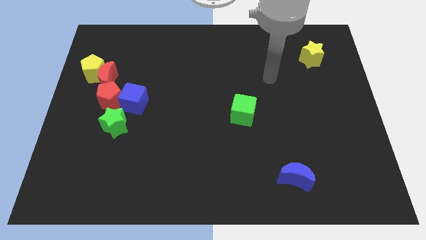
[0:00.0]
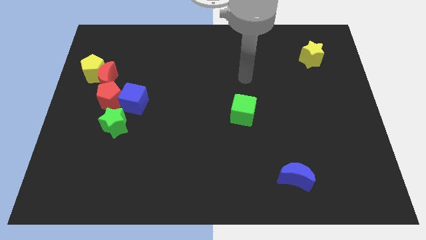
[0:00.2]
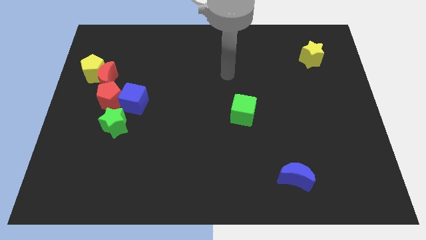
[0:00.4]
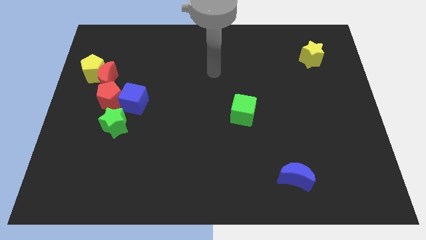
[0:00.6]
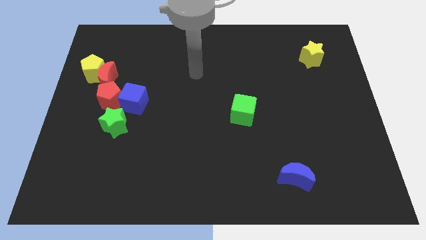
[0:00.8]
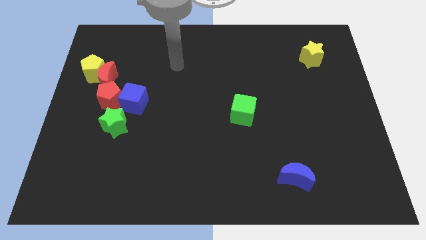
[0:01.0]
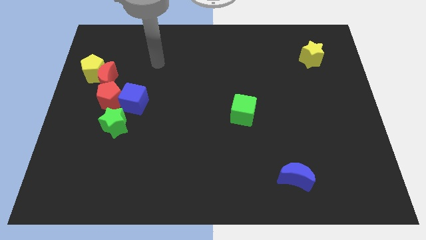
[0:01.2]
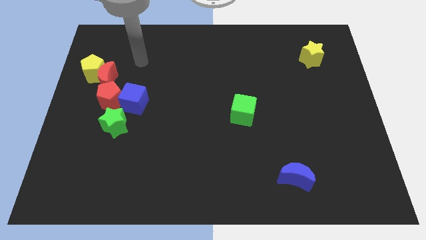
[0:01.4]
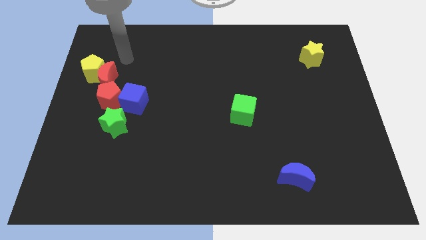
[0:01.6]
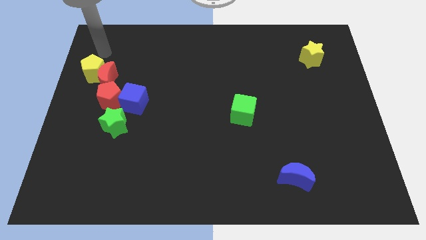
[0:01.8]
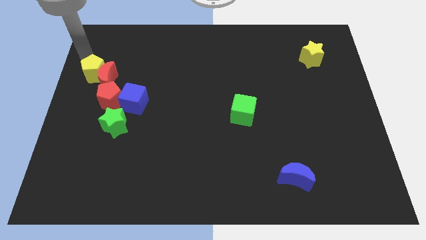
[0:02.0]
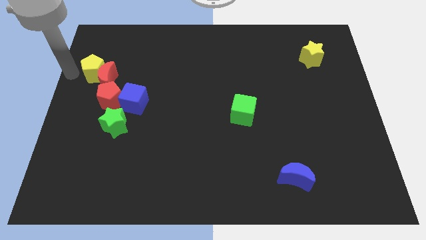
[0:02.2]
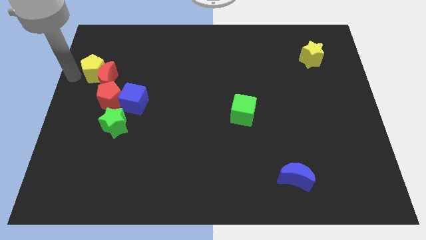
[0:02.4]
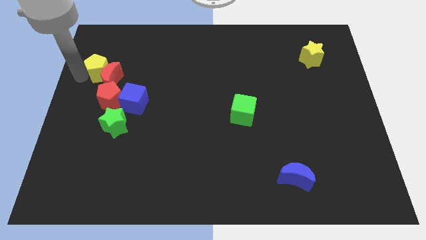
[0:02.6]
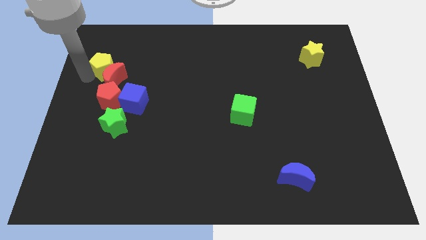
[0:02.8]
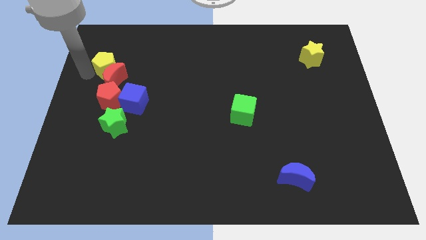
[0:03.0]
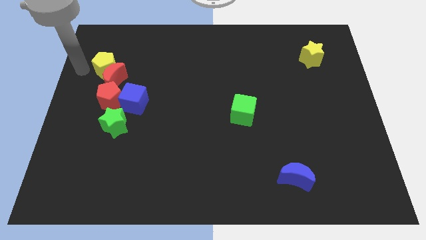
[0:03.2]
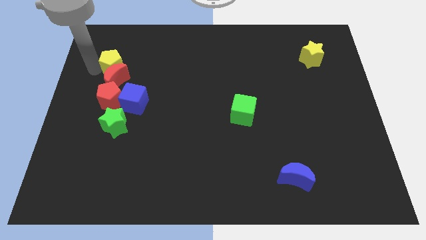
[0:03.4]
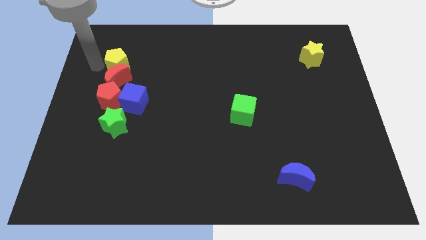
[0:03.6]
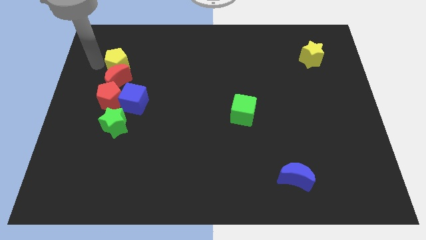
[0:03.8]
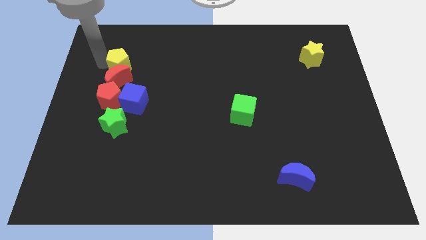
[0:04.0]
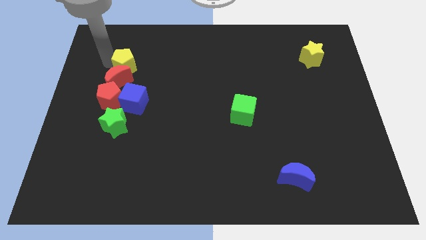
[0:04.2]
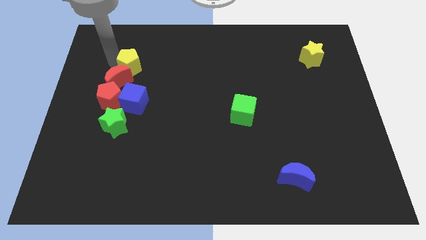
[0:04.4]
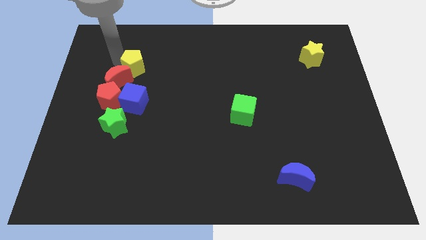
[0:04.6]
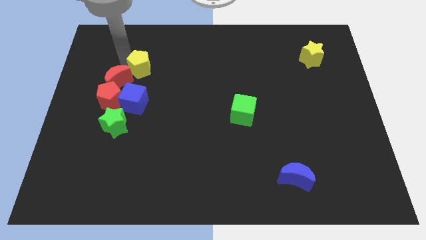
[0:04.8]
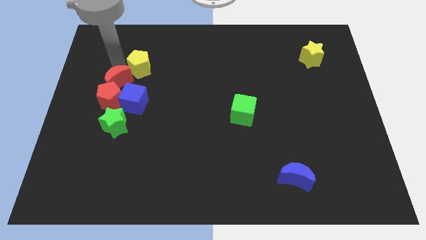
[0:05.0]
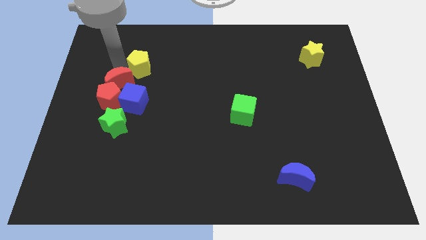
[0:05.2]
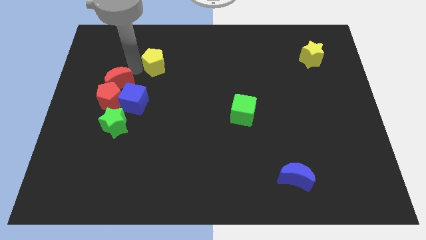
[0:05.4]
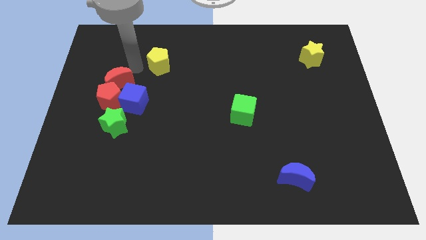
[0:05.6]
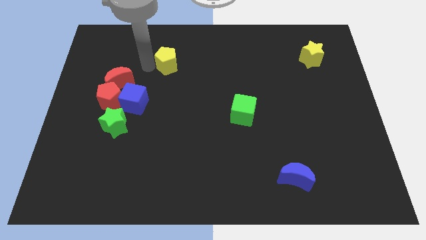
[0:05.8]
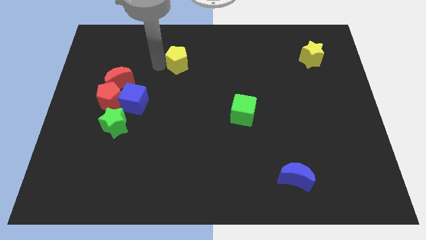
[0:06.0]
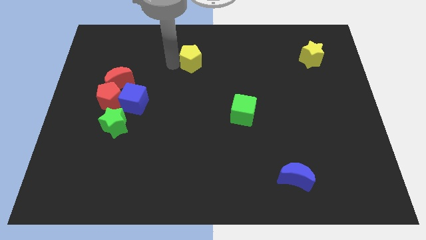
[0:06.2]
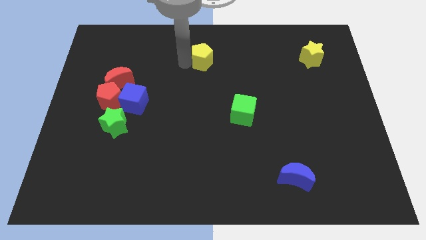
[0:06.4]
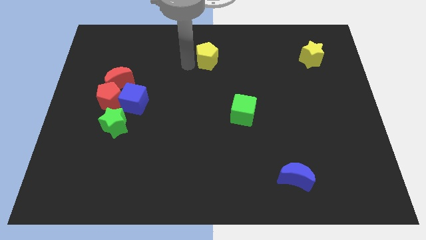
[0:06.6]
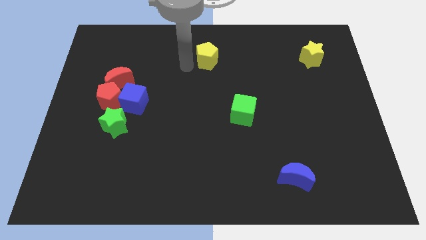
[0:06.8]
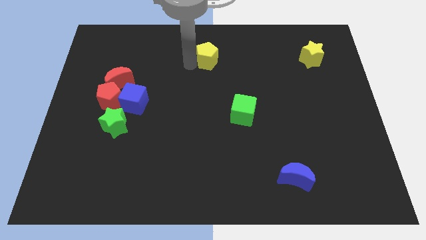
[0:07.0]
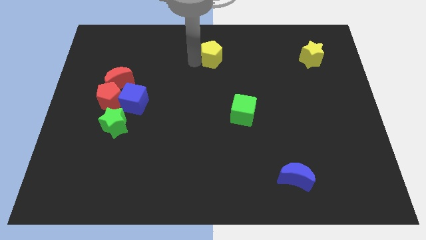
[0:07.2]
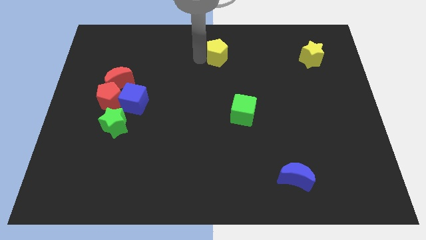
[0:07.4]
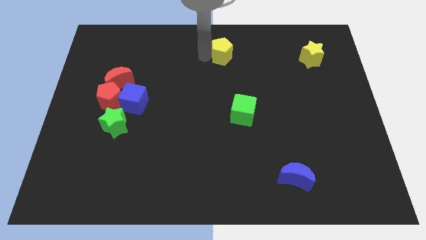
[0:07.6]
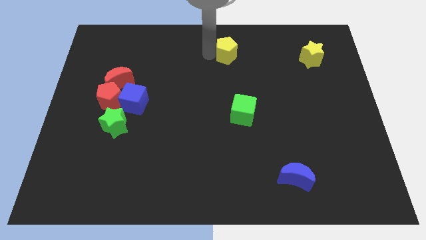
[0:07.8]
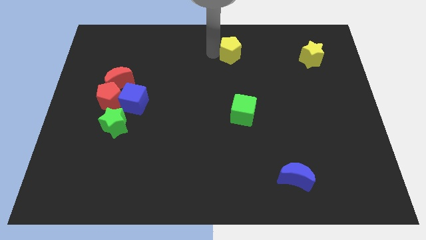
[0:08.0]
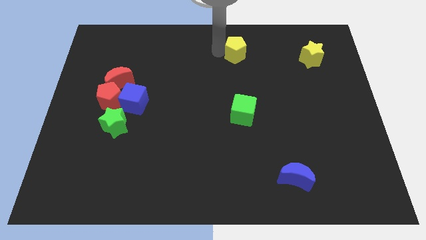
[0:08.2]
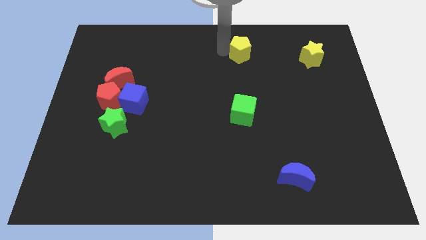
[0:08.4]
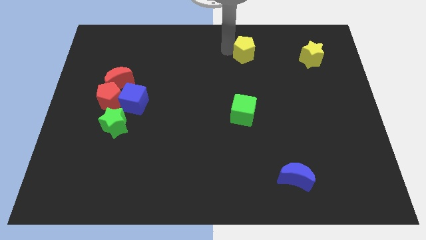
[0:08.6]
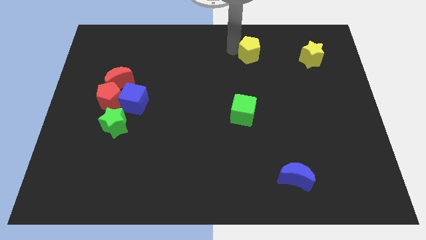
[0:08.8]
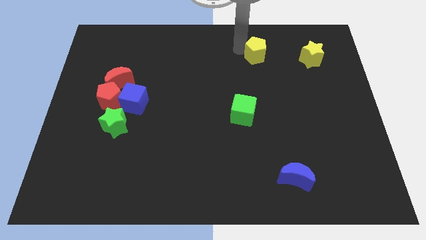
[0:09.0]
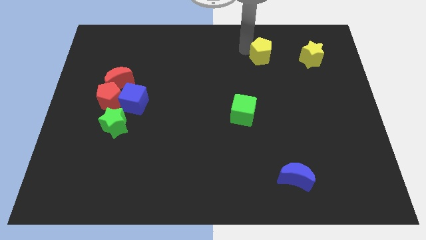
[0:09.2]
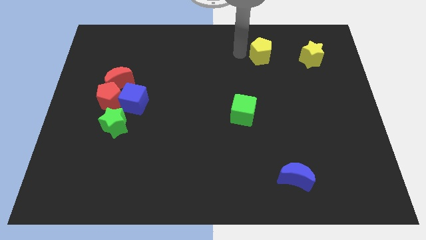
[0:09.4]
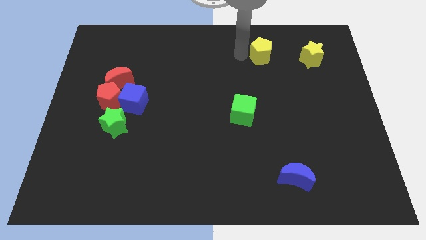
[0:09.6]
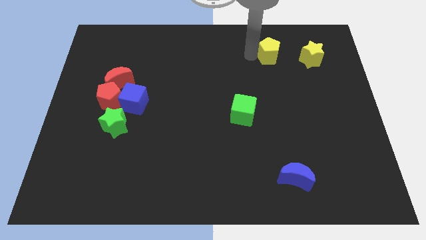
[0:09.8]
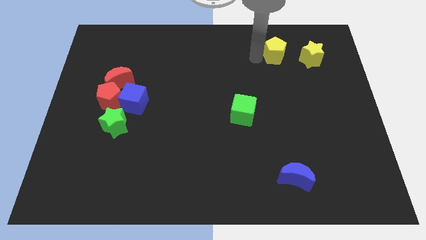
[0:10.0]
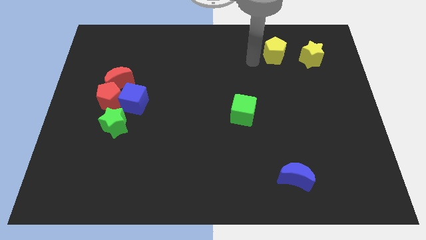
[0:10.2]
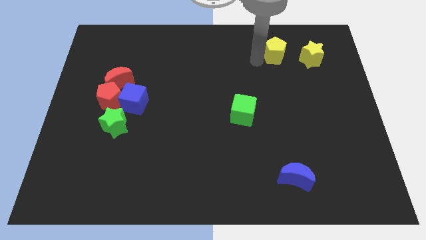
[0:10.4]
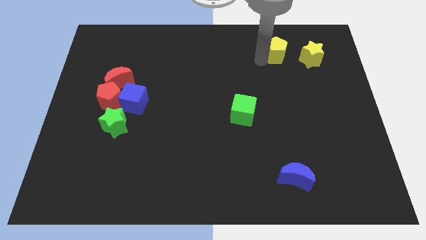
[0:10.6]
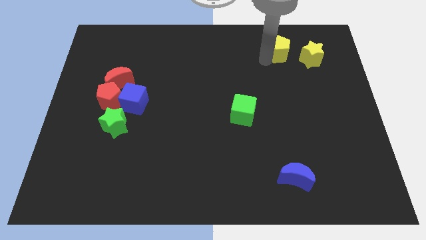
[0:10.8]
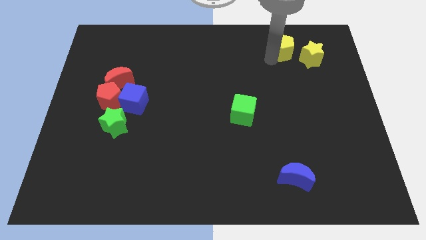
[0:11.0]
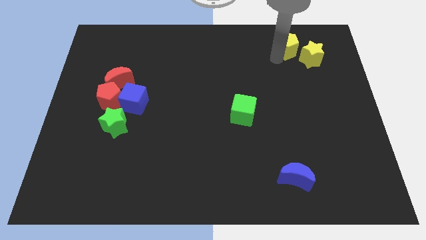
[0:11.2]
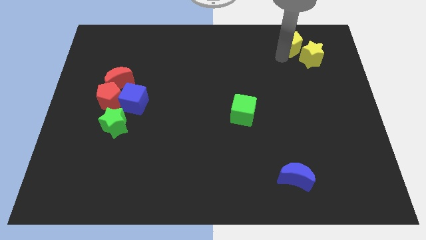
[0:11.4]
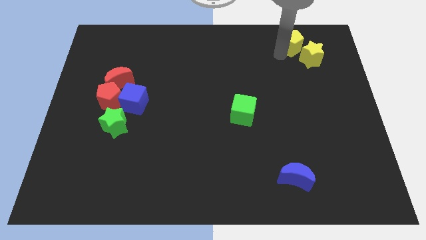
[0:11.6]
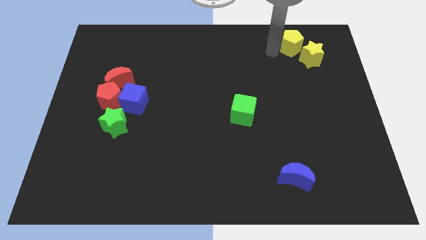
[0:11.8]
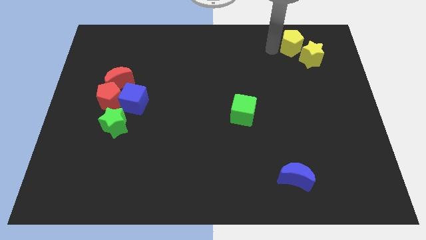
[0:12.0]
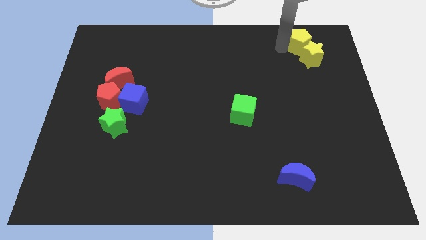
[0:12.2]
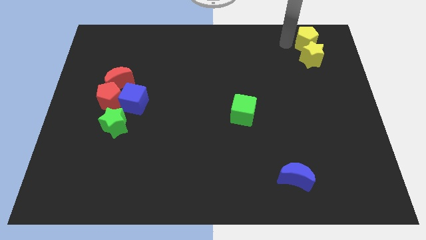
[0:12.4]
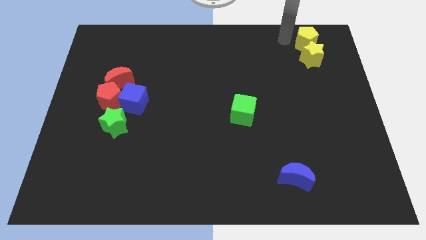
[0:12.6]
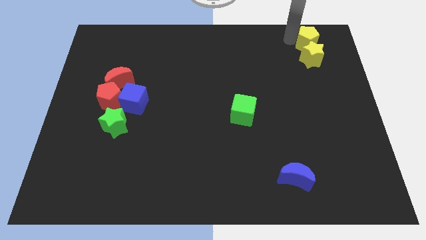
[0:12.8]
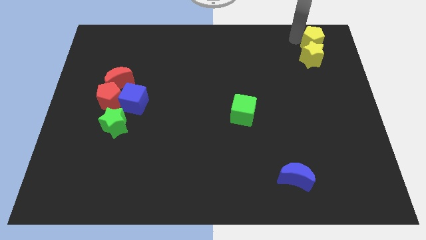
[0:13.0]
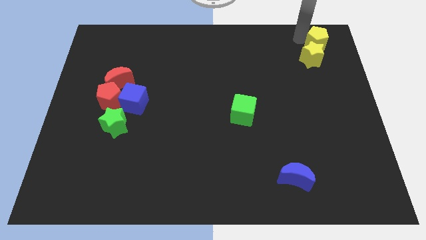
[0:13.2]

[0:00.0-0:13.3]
put the yellow pentagon to the top right corner

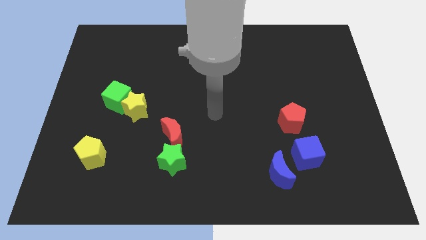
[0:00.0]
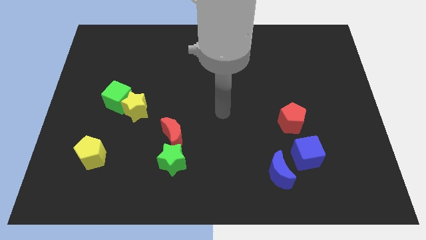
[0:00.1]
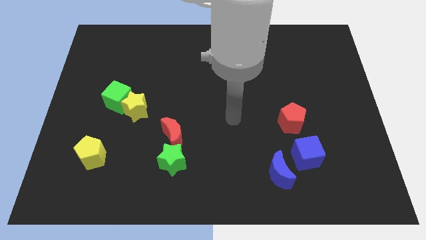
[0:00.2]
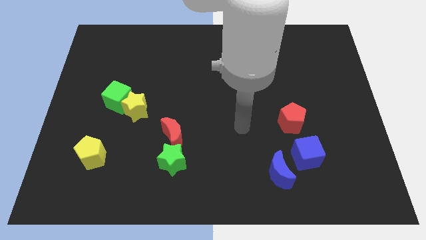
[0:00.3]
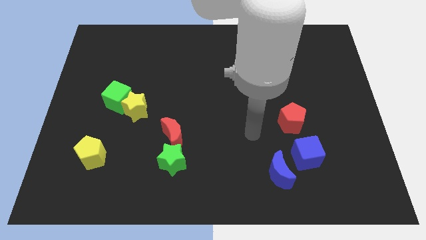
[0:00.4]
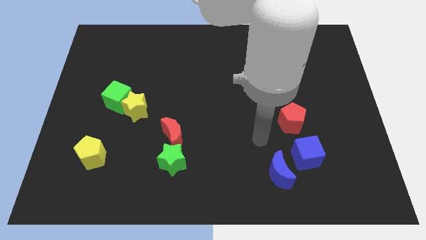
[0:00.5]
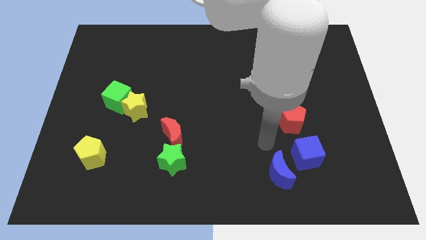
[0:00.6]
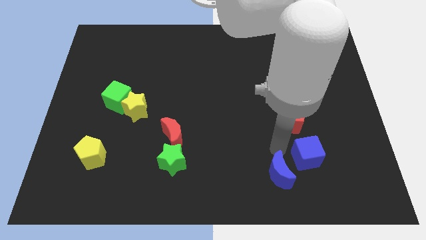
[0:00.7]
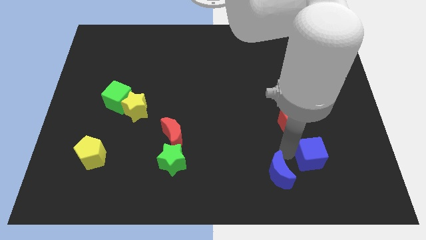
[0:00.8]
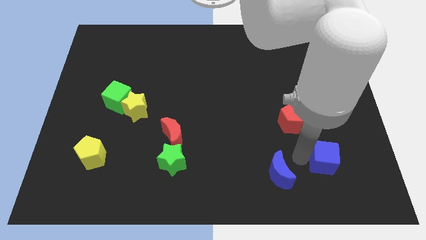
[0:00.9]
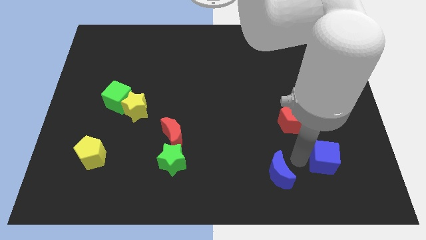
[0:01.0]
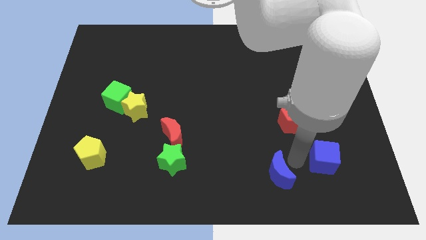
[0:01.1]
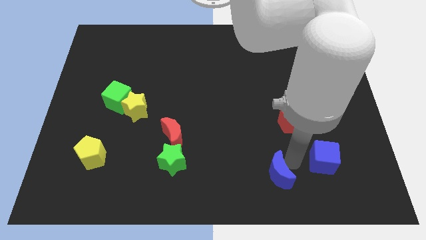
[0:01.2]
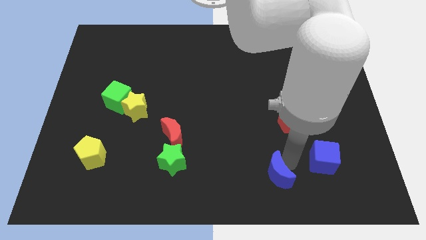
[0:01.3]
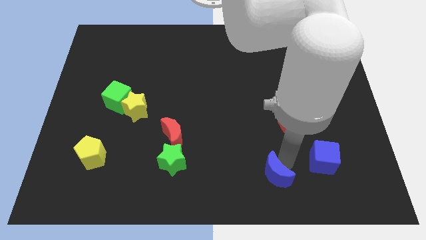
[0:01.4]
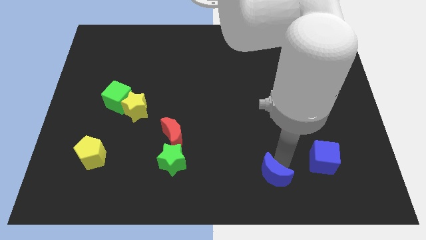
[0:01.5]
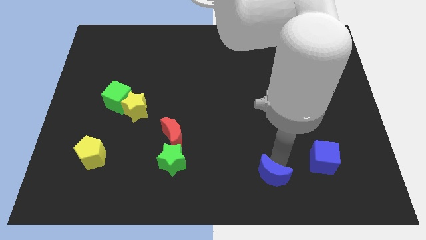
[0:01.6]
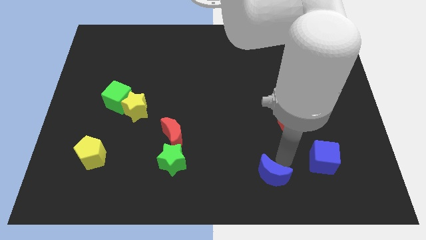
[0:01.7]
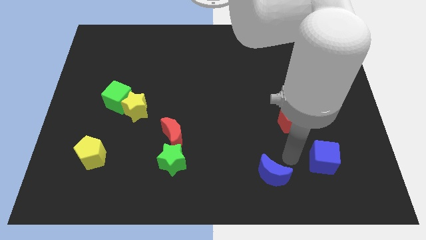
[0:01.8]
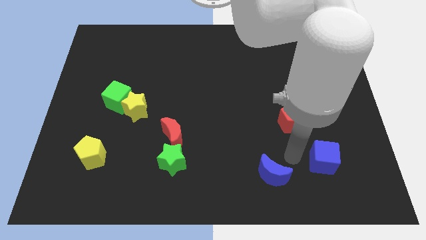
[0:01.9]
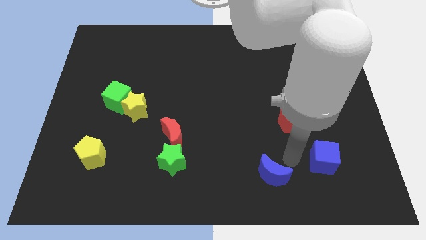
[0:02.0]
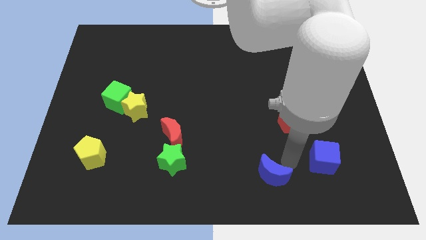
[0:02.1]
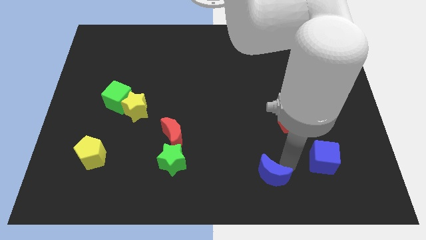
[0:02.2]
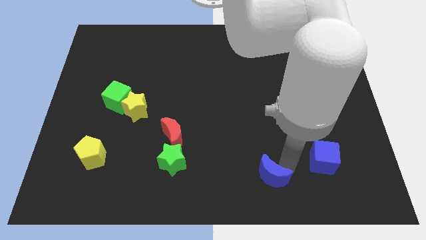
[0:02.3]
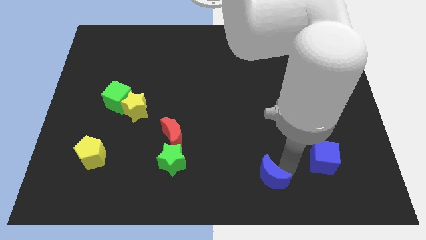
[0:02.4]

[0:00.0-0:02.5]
move the blue moon to the bottom
